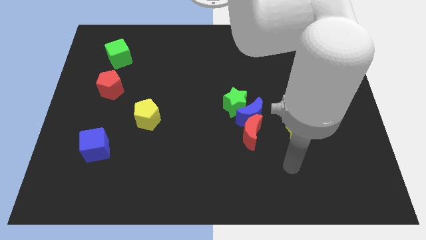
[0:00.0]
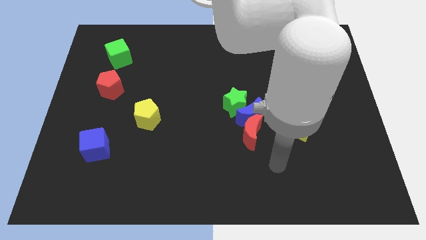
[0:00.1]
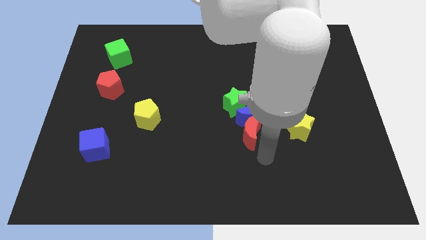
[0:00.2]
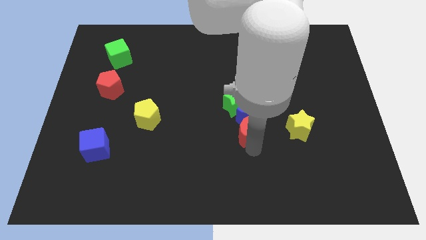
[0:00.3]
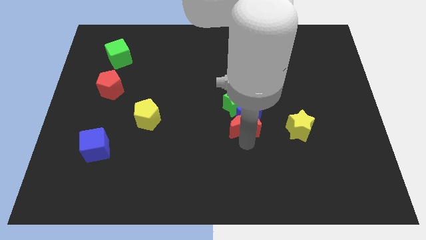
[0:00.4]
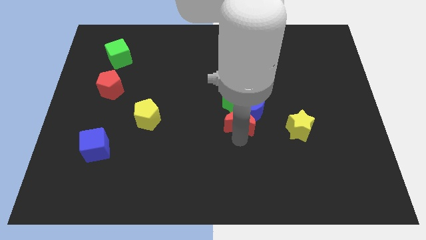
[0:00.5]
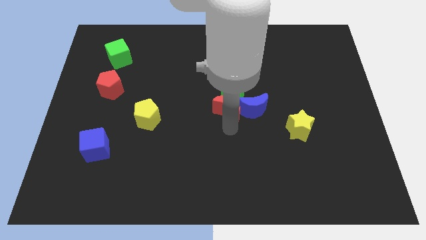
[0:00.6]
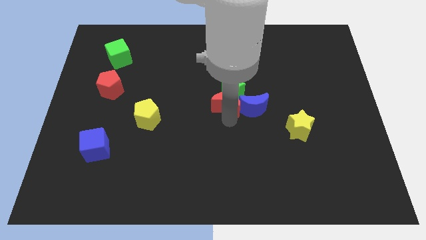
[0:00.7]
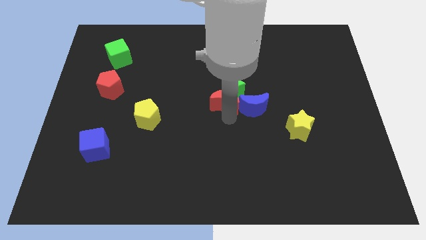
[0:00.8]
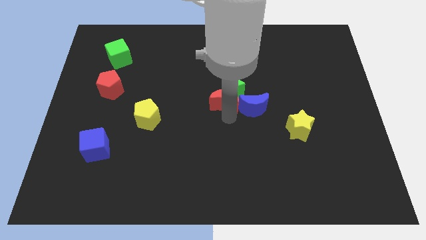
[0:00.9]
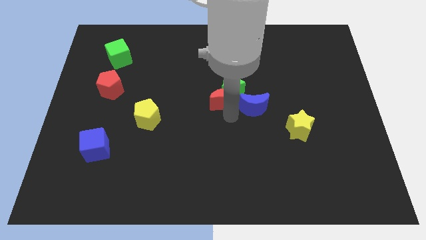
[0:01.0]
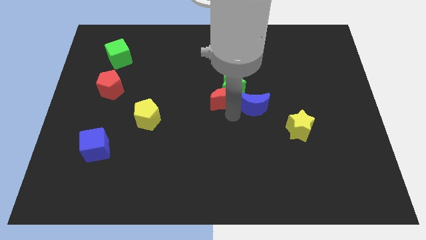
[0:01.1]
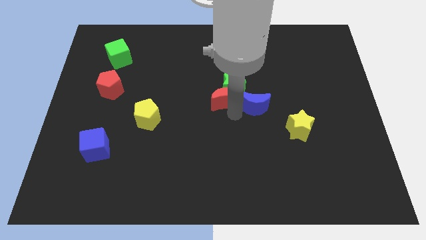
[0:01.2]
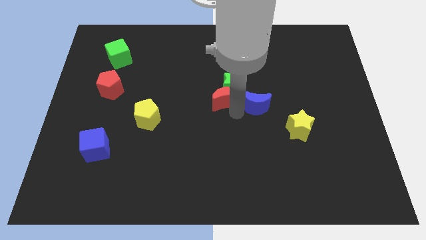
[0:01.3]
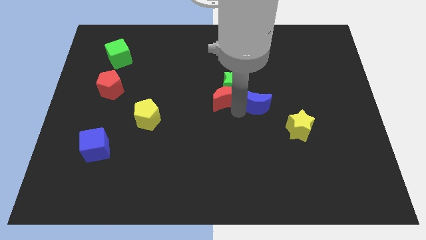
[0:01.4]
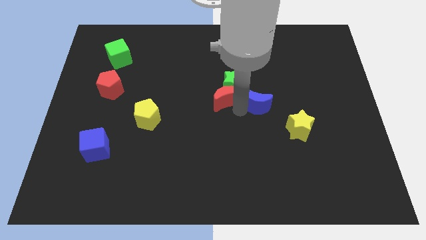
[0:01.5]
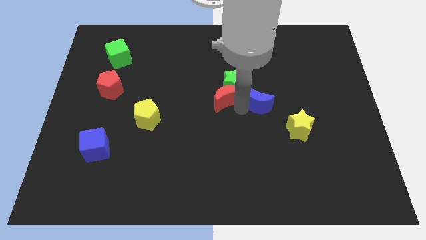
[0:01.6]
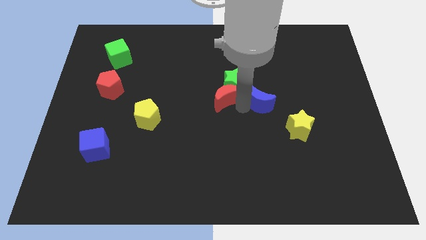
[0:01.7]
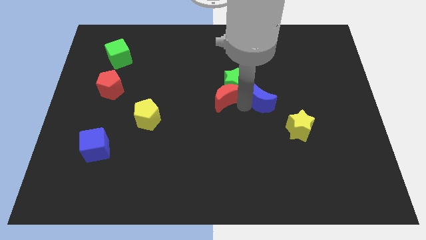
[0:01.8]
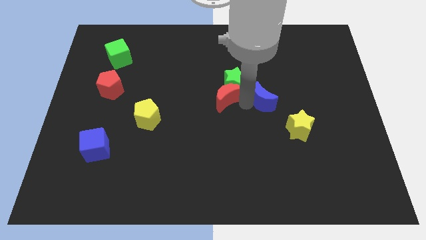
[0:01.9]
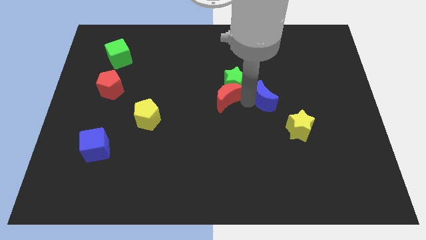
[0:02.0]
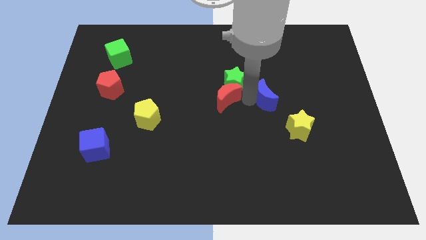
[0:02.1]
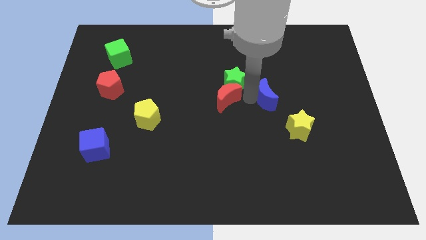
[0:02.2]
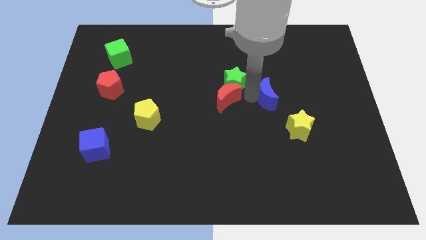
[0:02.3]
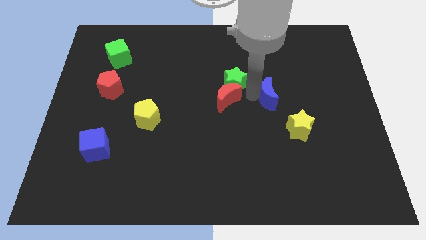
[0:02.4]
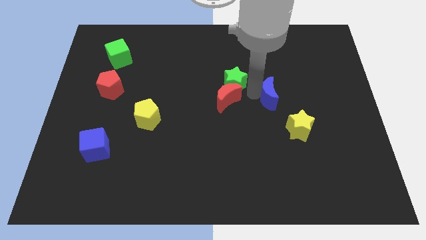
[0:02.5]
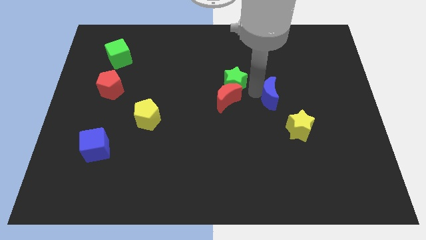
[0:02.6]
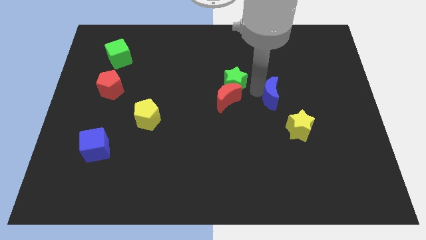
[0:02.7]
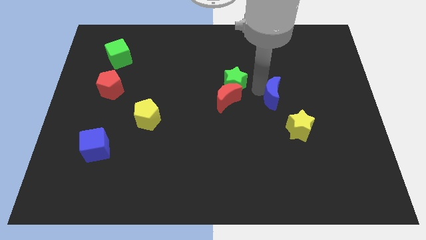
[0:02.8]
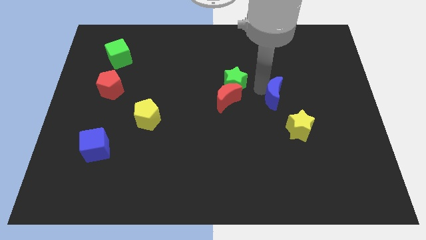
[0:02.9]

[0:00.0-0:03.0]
pull the blue moon apart from the green star and red moon

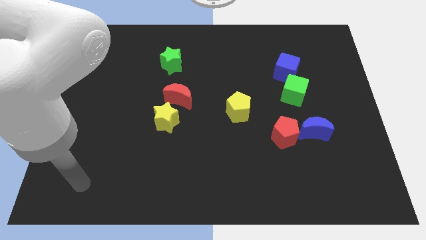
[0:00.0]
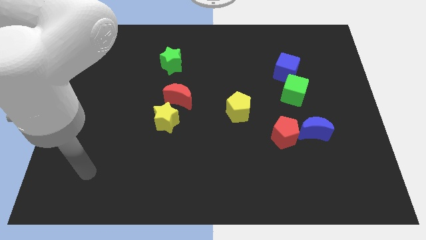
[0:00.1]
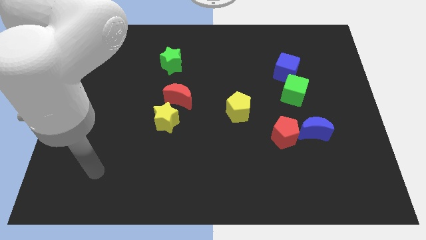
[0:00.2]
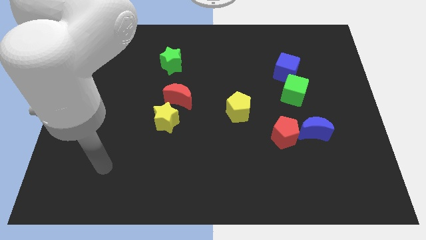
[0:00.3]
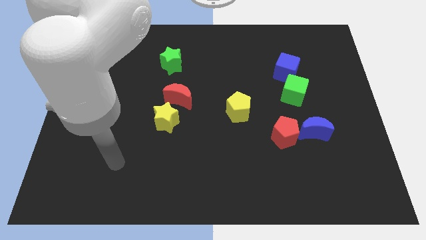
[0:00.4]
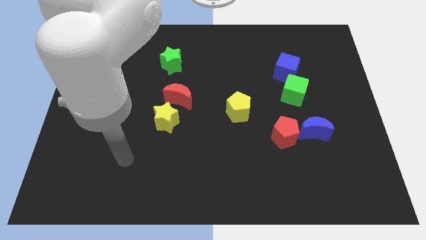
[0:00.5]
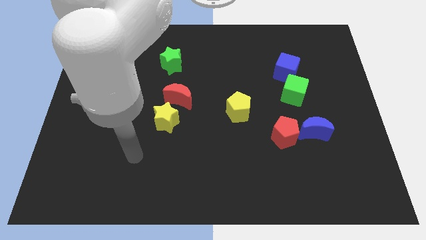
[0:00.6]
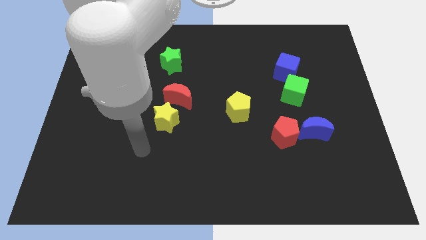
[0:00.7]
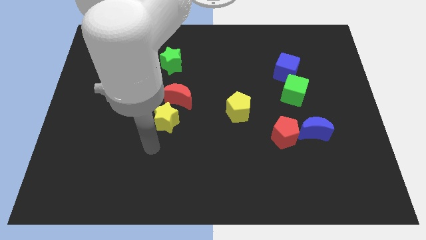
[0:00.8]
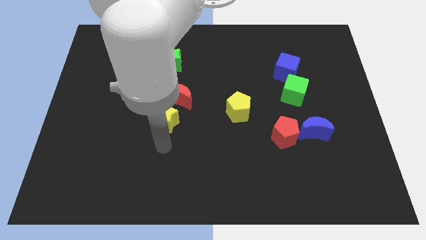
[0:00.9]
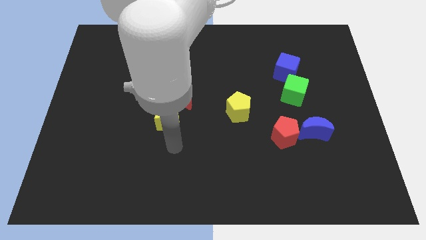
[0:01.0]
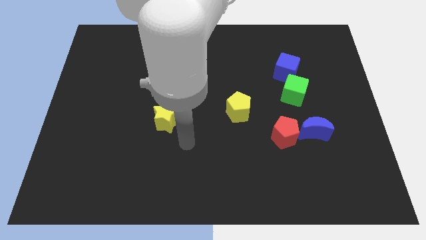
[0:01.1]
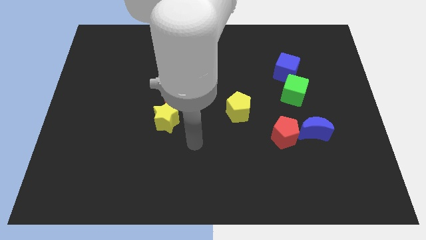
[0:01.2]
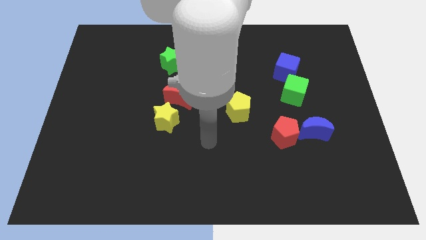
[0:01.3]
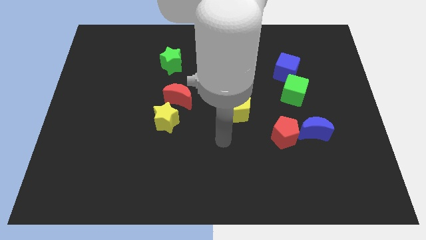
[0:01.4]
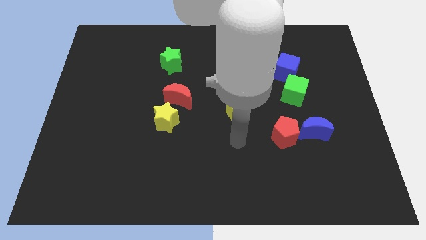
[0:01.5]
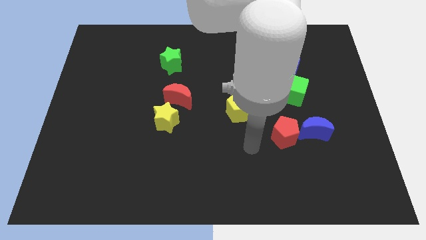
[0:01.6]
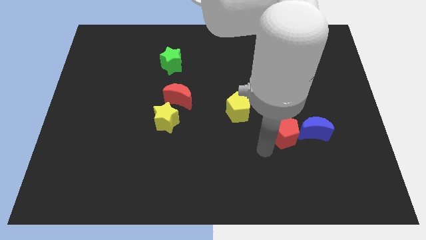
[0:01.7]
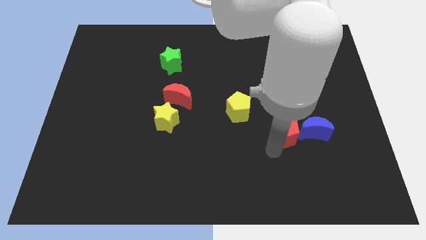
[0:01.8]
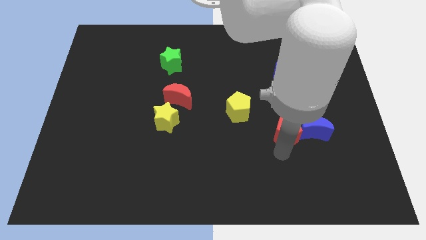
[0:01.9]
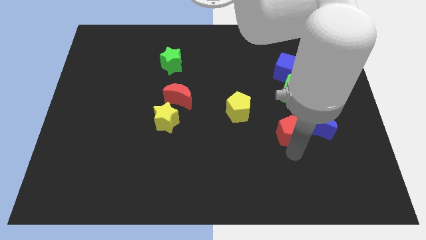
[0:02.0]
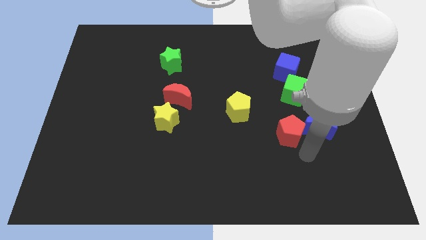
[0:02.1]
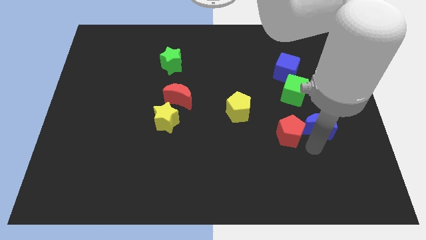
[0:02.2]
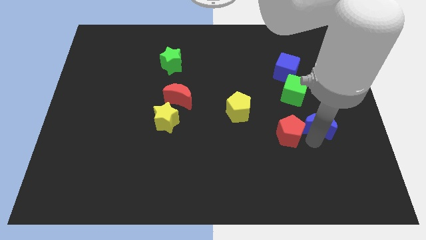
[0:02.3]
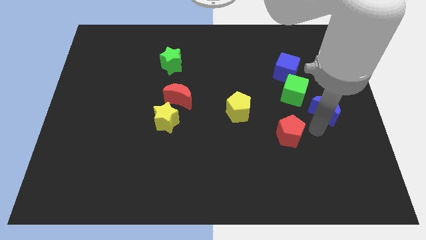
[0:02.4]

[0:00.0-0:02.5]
pull the red pentagon apart from the blue moon

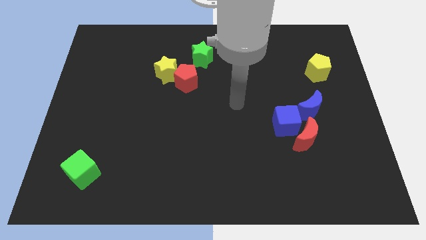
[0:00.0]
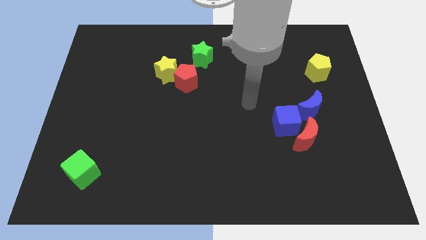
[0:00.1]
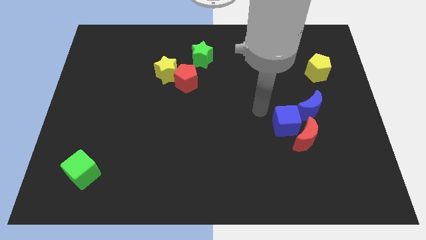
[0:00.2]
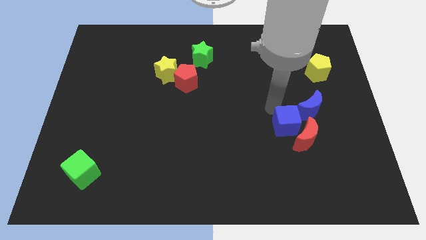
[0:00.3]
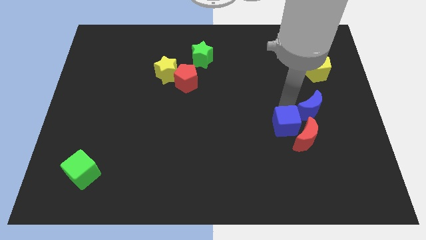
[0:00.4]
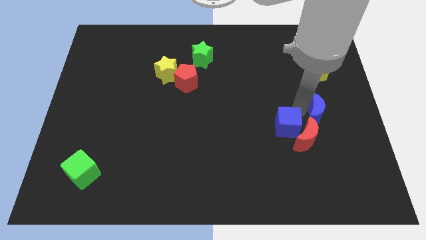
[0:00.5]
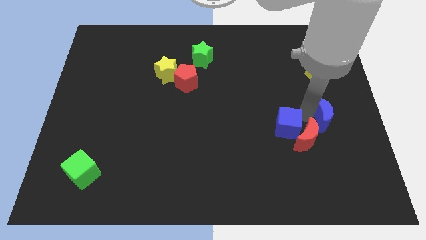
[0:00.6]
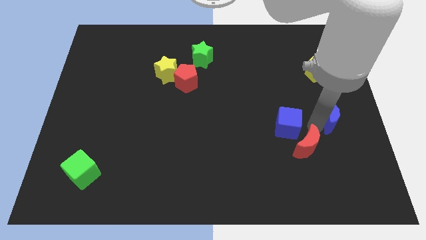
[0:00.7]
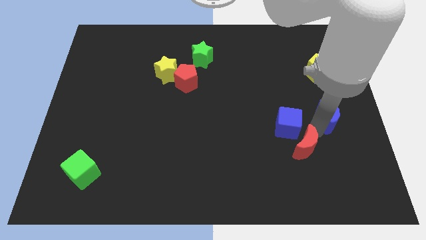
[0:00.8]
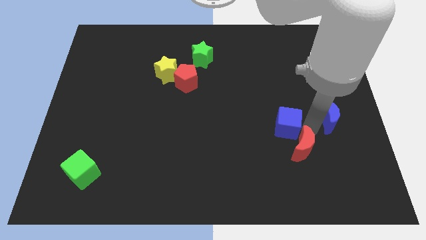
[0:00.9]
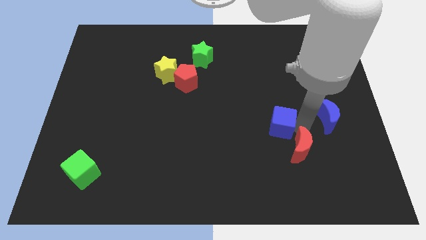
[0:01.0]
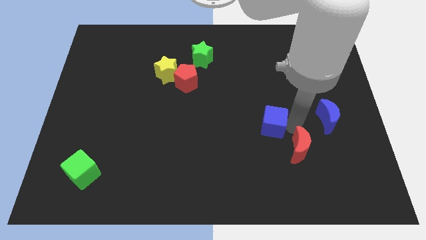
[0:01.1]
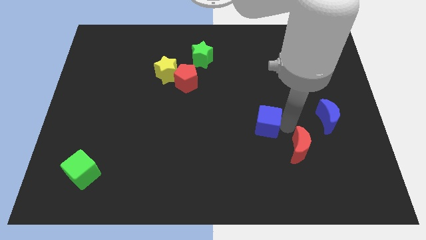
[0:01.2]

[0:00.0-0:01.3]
pull the blue cube apart from the red moon and blue moon

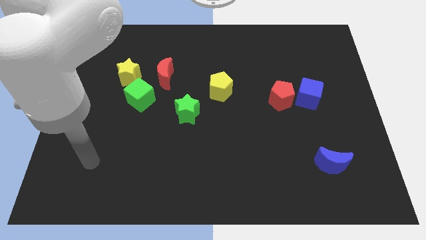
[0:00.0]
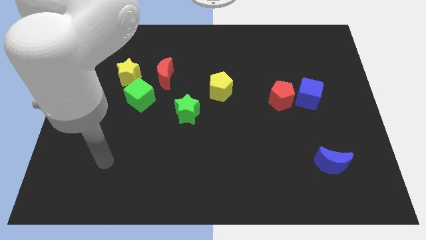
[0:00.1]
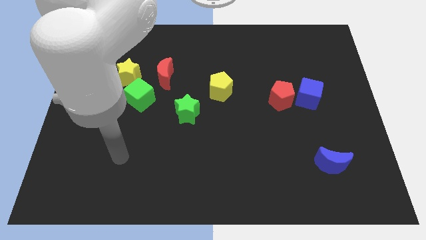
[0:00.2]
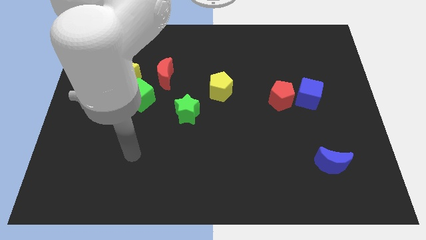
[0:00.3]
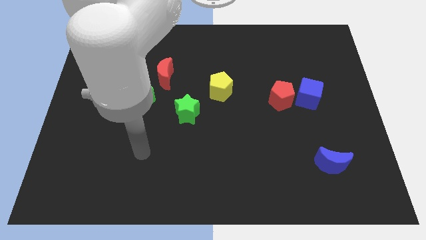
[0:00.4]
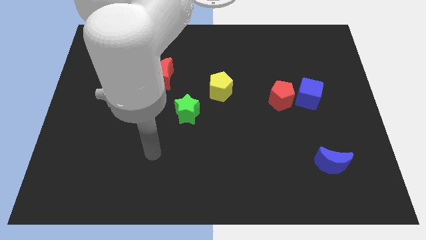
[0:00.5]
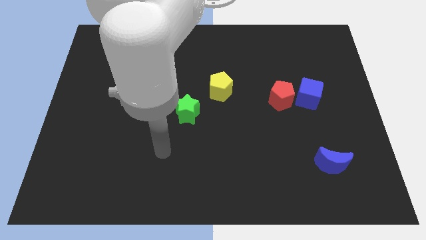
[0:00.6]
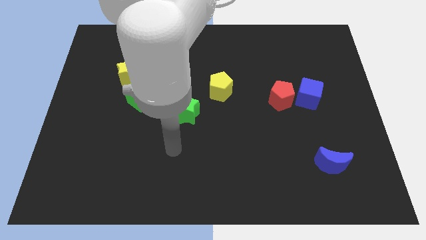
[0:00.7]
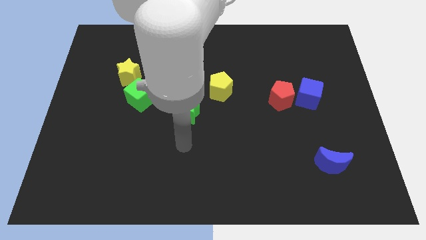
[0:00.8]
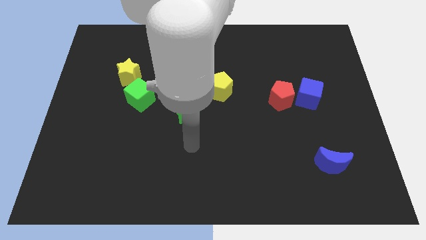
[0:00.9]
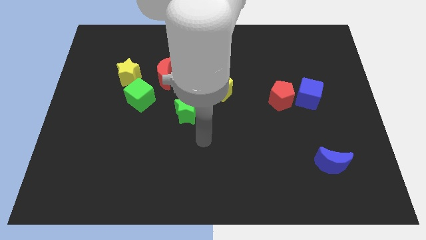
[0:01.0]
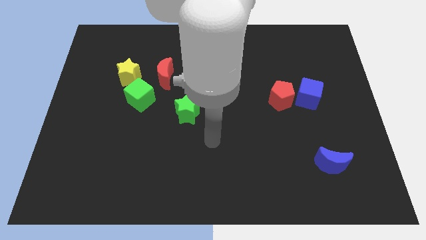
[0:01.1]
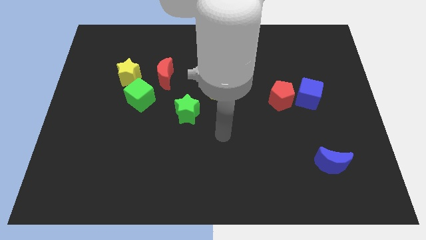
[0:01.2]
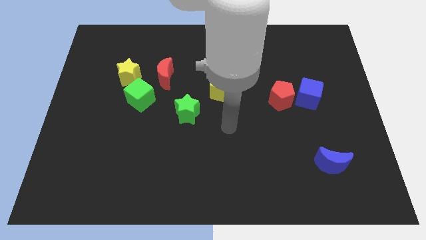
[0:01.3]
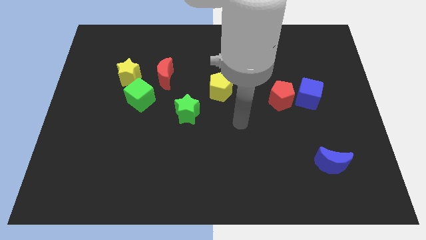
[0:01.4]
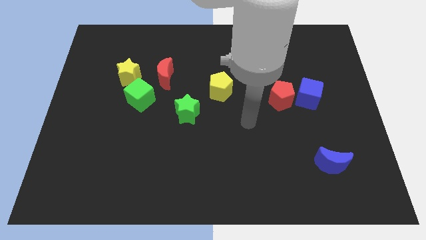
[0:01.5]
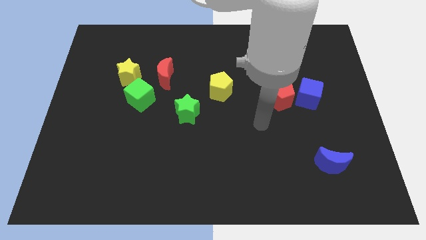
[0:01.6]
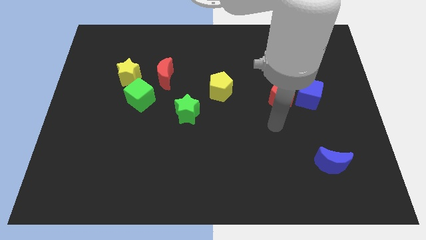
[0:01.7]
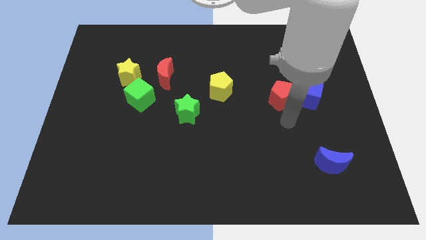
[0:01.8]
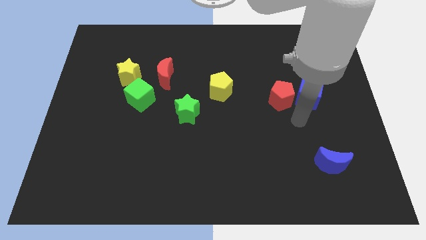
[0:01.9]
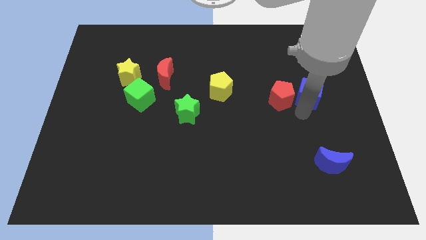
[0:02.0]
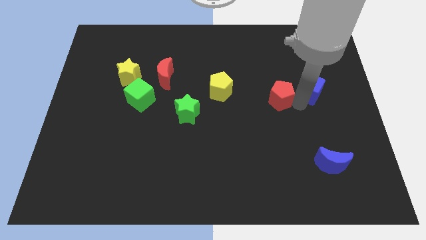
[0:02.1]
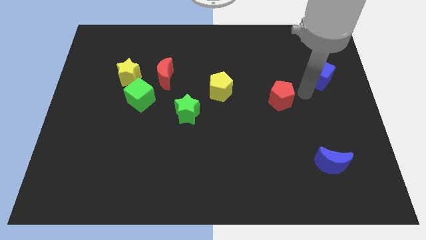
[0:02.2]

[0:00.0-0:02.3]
move the red pentagon away from the blue cube

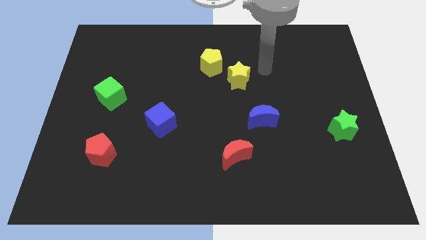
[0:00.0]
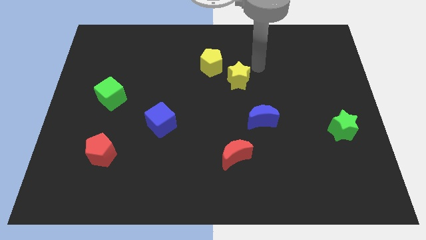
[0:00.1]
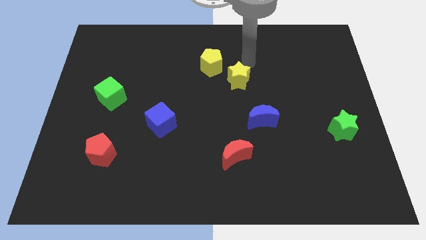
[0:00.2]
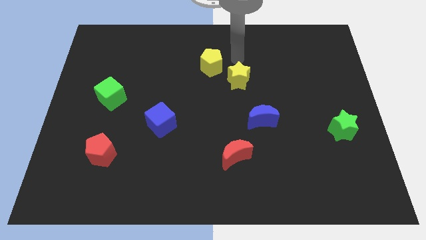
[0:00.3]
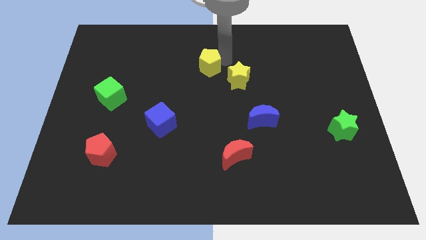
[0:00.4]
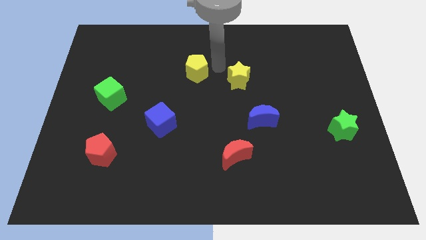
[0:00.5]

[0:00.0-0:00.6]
move the yellow star away from the yellow pentagon
